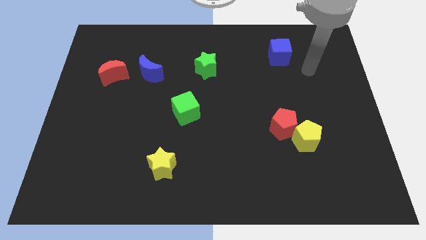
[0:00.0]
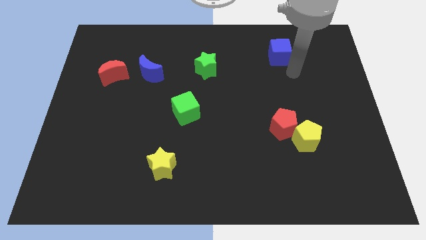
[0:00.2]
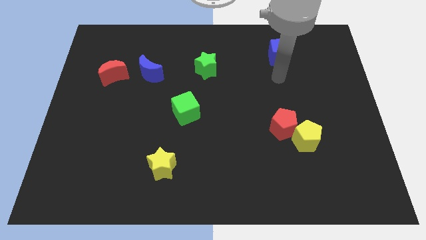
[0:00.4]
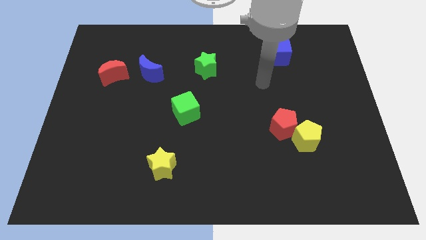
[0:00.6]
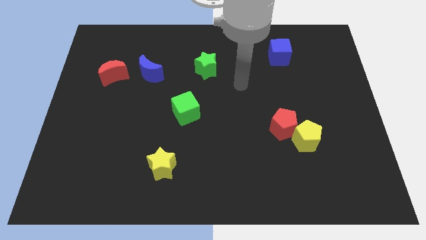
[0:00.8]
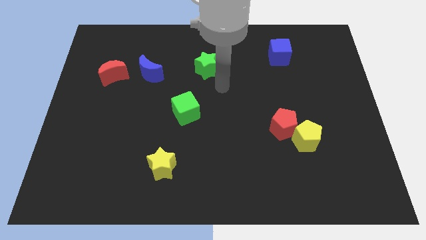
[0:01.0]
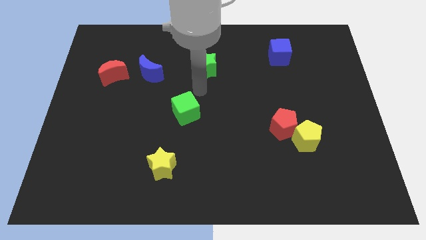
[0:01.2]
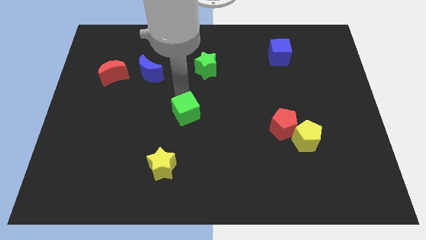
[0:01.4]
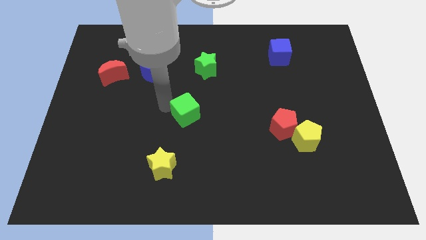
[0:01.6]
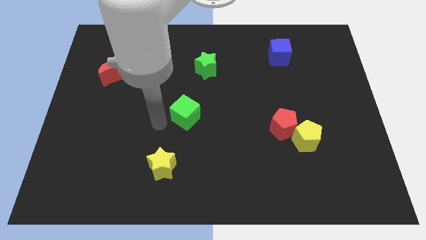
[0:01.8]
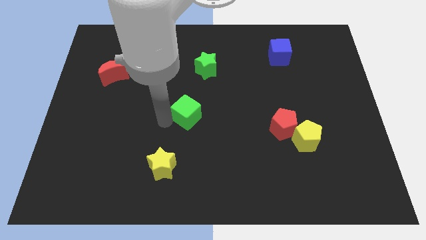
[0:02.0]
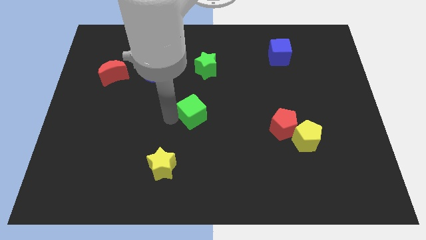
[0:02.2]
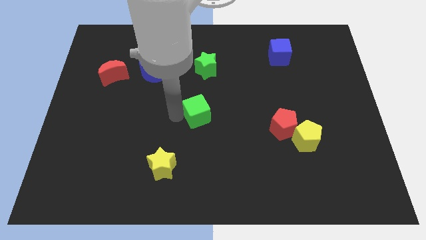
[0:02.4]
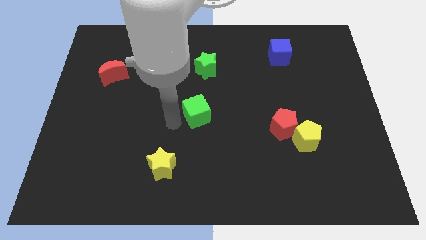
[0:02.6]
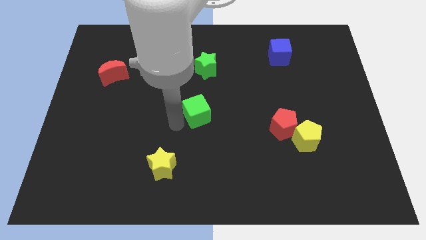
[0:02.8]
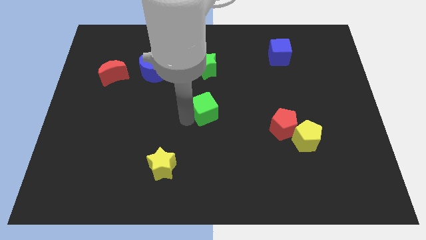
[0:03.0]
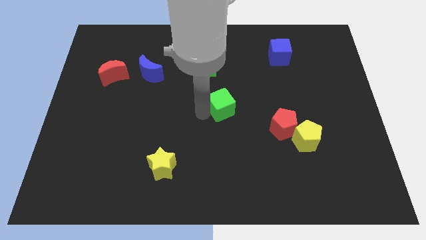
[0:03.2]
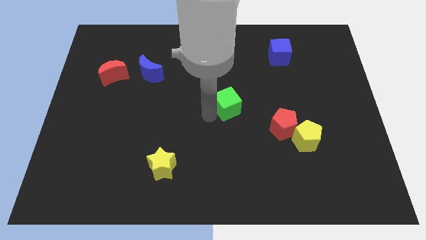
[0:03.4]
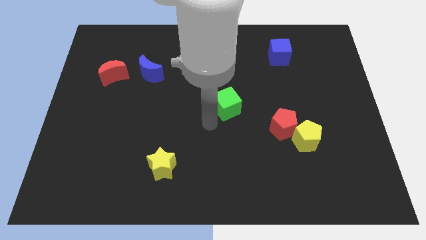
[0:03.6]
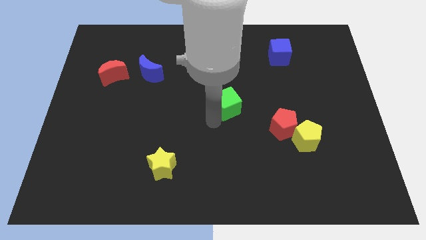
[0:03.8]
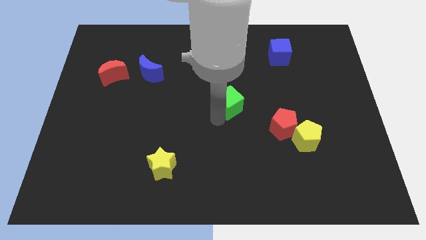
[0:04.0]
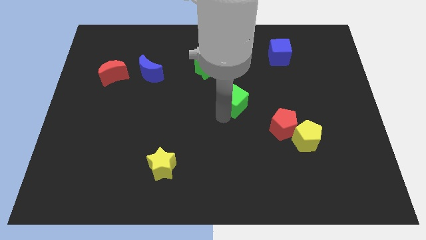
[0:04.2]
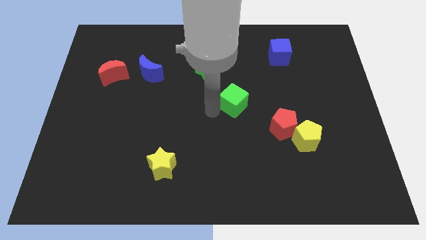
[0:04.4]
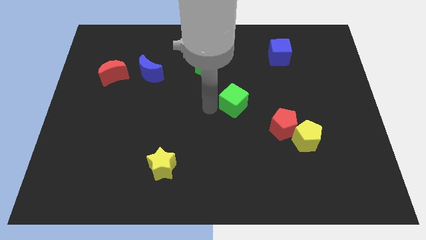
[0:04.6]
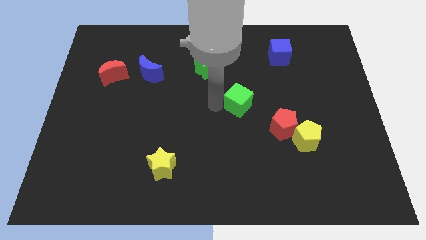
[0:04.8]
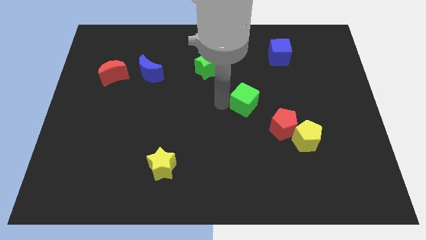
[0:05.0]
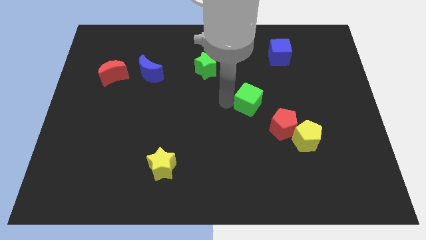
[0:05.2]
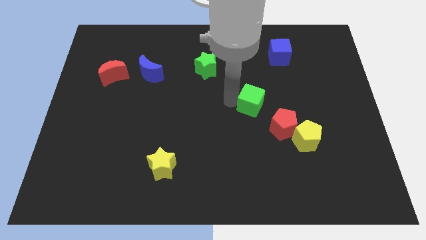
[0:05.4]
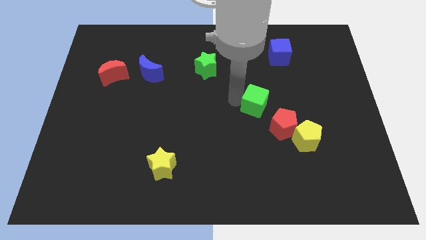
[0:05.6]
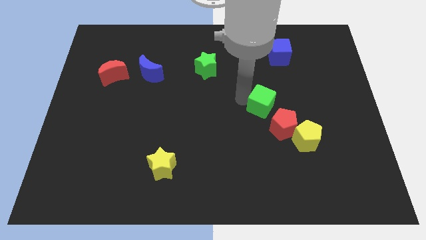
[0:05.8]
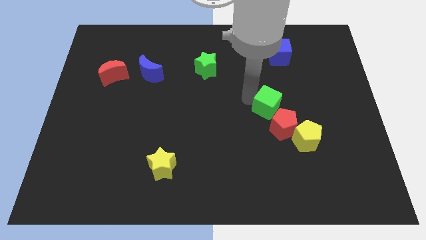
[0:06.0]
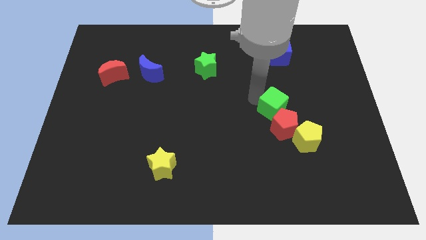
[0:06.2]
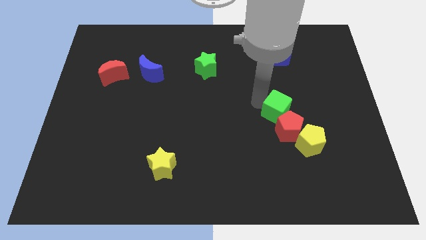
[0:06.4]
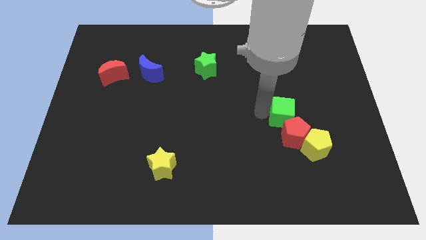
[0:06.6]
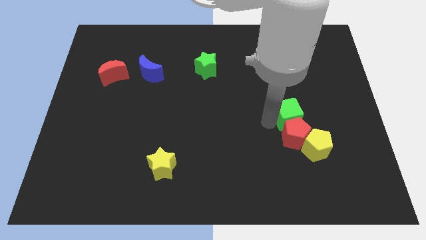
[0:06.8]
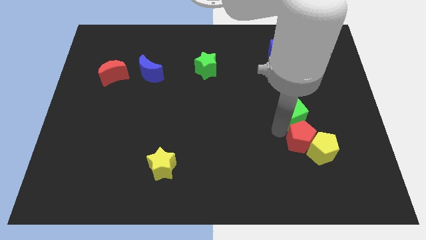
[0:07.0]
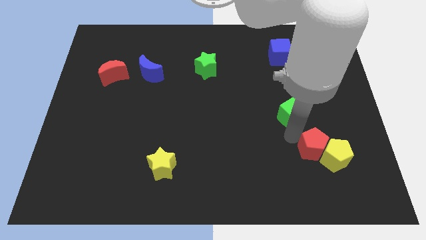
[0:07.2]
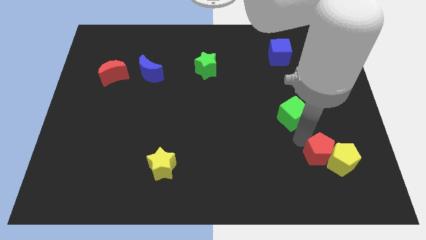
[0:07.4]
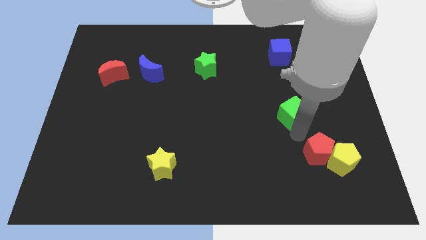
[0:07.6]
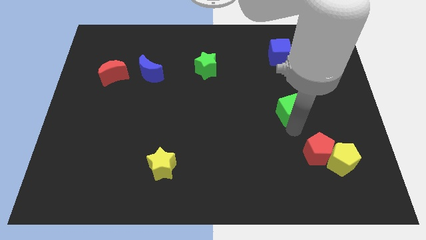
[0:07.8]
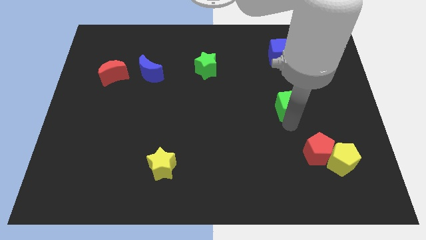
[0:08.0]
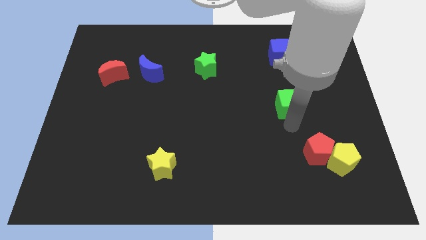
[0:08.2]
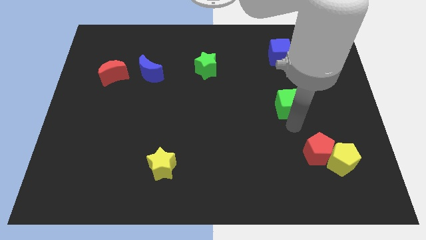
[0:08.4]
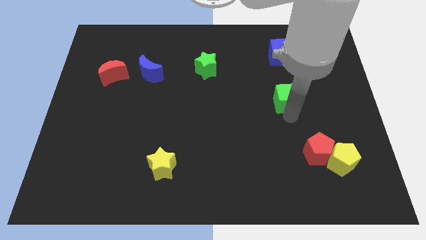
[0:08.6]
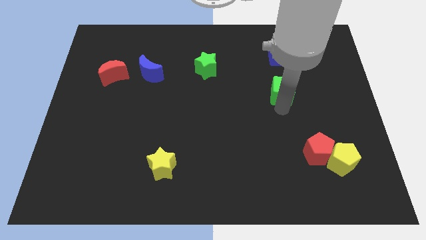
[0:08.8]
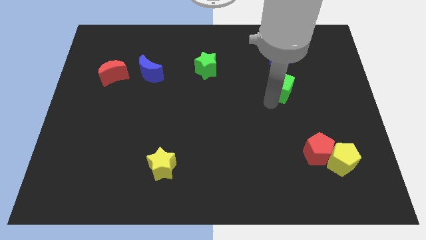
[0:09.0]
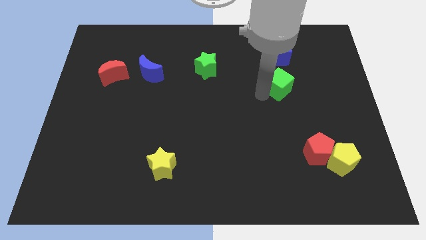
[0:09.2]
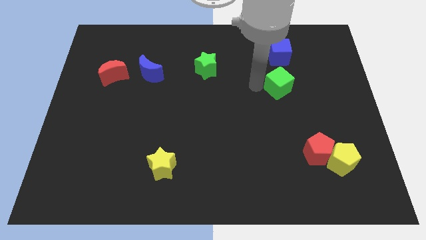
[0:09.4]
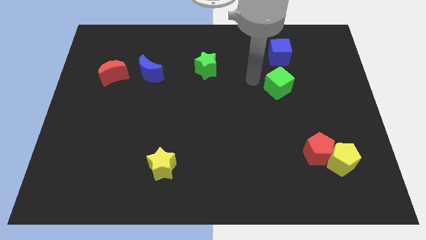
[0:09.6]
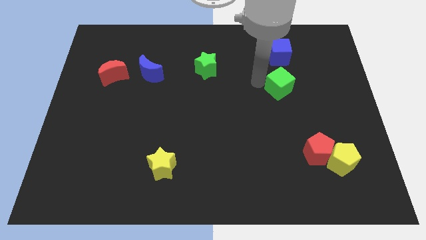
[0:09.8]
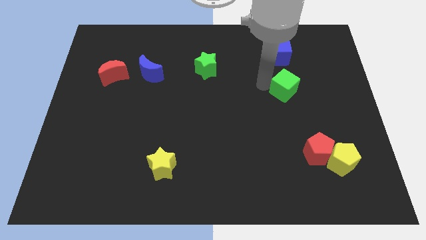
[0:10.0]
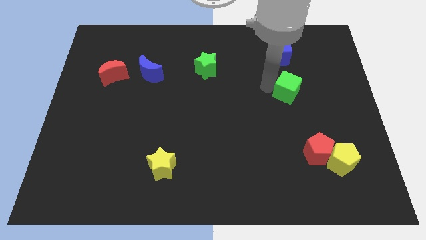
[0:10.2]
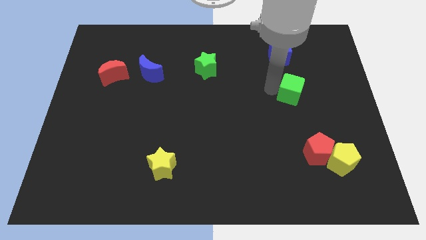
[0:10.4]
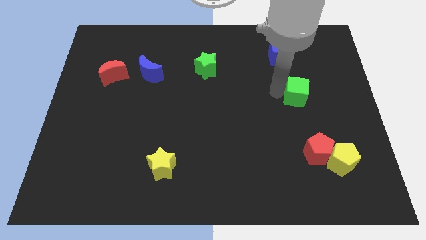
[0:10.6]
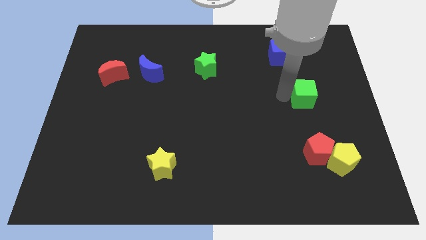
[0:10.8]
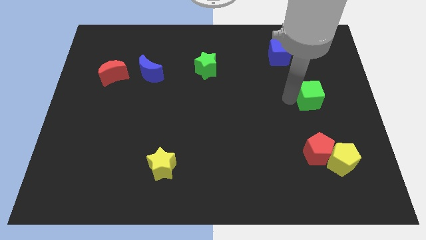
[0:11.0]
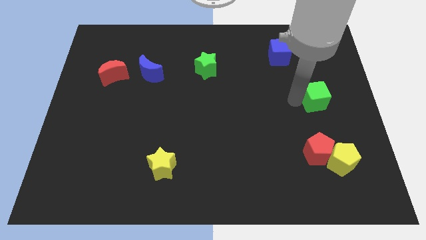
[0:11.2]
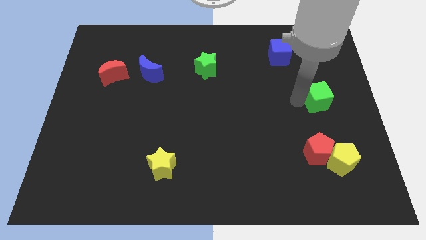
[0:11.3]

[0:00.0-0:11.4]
put the green cube to the right side of the board
